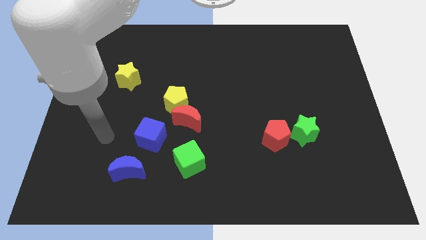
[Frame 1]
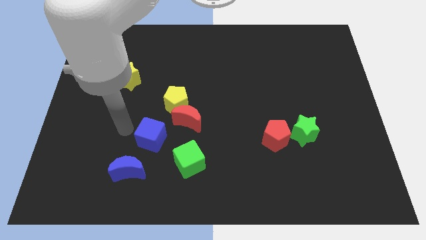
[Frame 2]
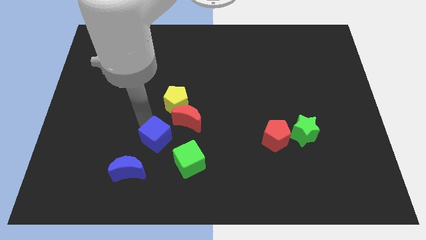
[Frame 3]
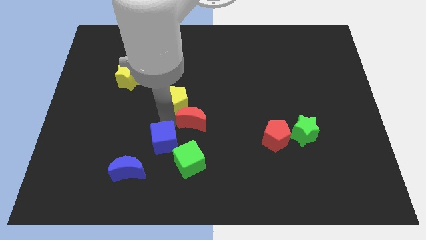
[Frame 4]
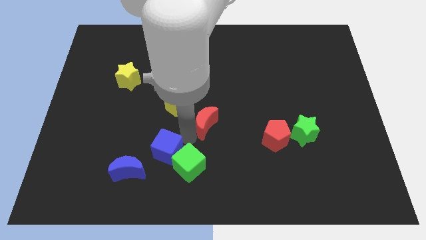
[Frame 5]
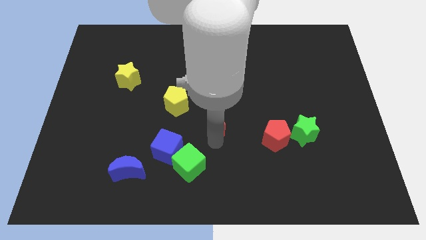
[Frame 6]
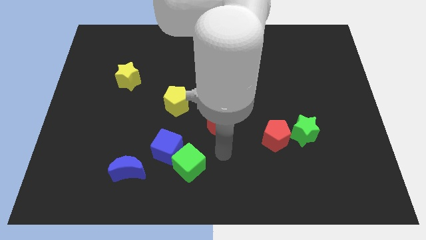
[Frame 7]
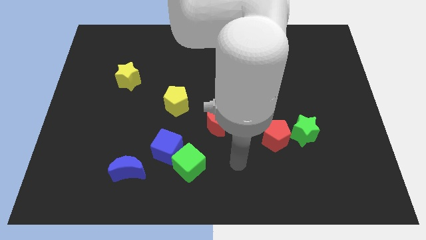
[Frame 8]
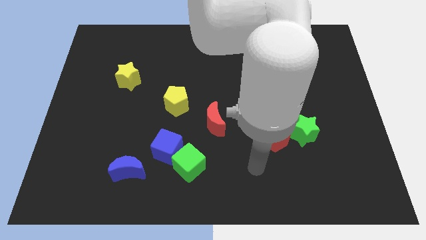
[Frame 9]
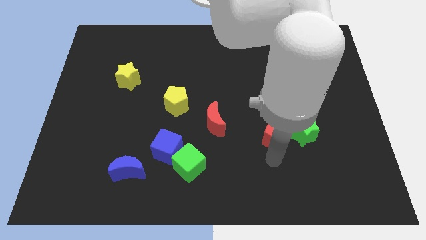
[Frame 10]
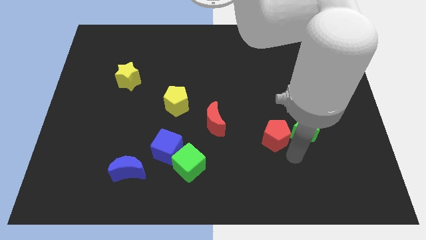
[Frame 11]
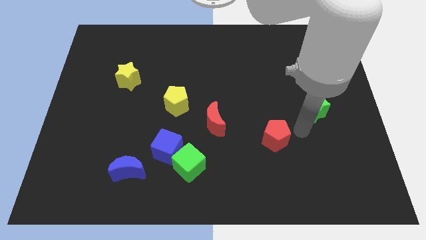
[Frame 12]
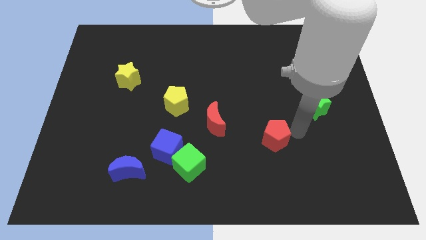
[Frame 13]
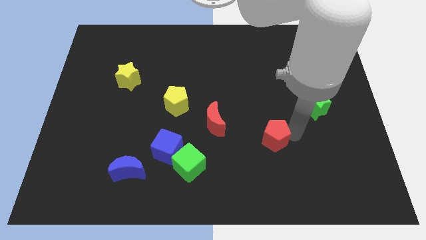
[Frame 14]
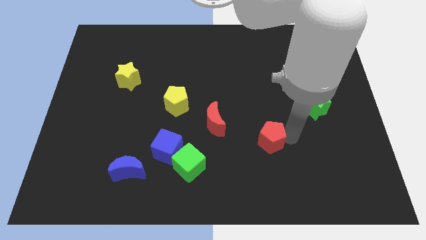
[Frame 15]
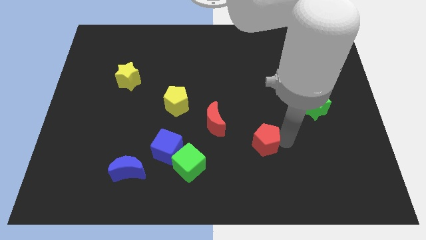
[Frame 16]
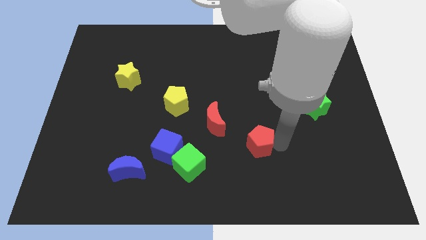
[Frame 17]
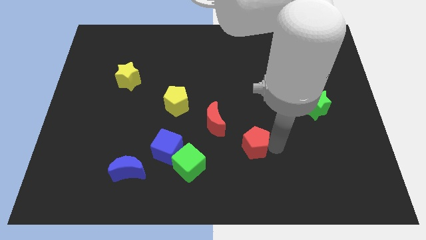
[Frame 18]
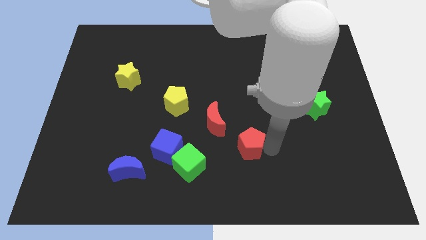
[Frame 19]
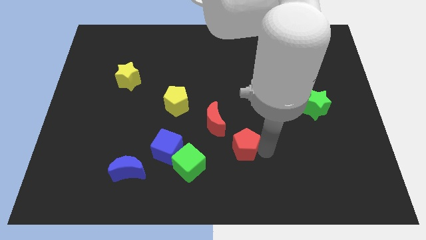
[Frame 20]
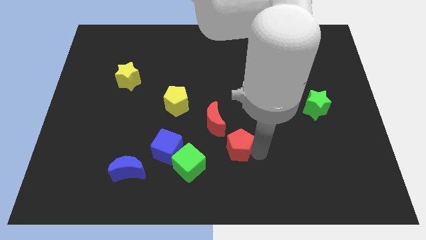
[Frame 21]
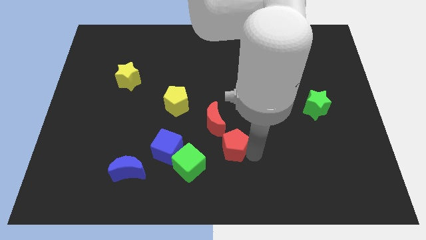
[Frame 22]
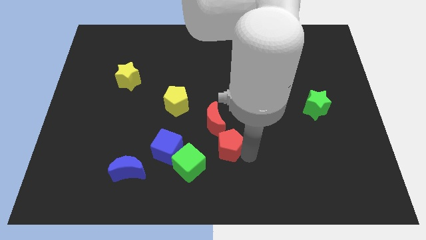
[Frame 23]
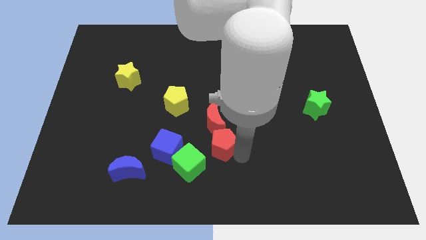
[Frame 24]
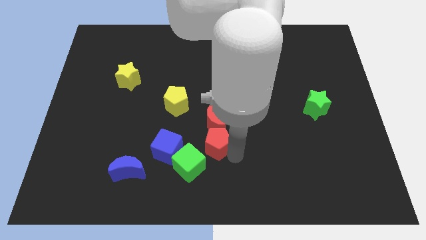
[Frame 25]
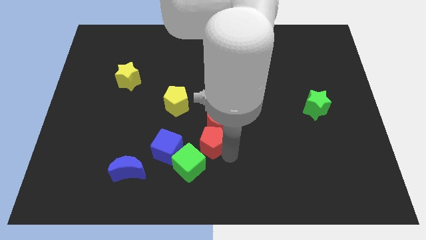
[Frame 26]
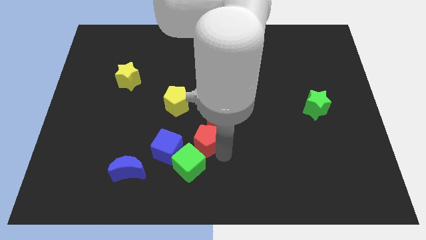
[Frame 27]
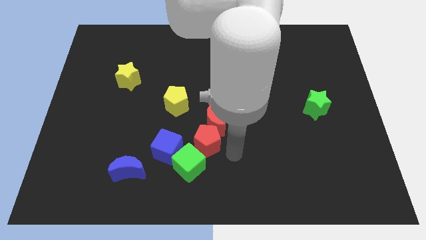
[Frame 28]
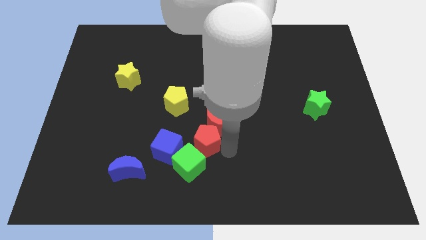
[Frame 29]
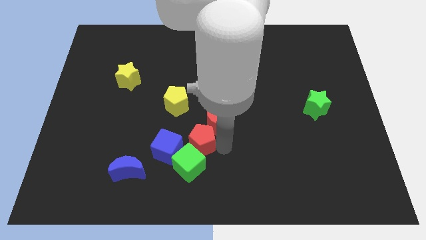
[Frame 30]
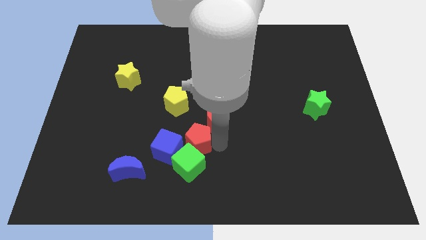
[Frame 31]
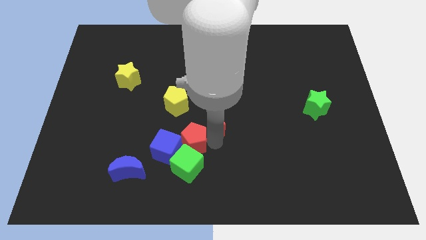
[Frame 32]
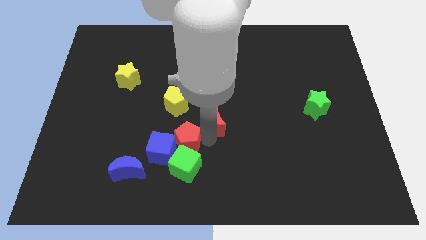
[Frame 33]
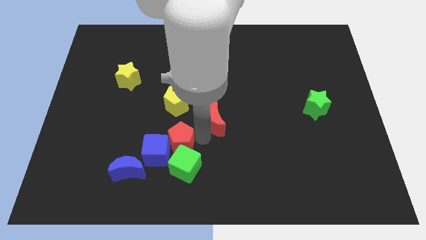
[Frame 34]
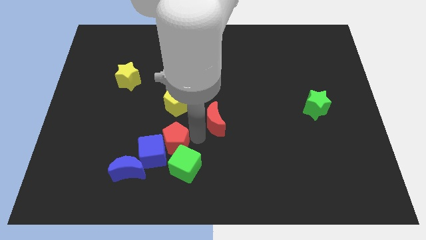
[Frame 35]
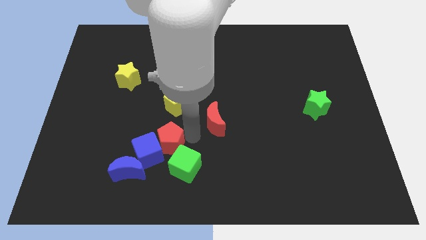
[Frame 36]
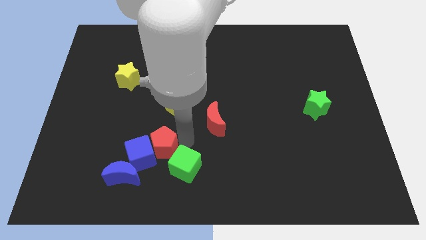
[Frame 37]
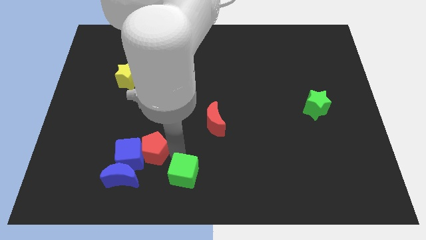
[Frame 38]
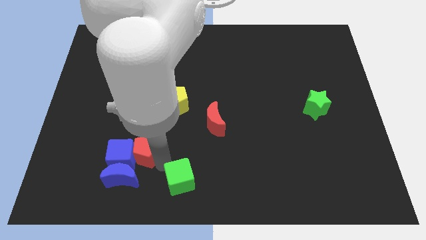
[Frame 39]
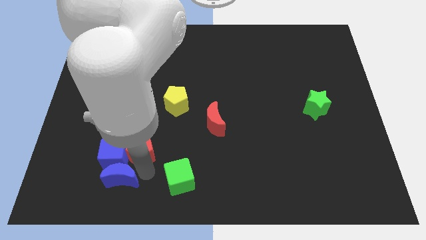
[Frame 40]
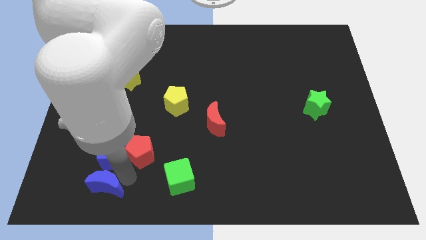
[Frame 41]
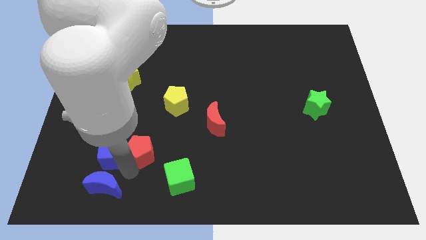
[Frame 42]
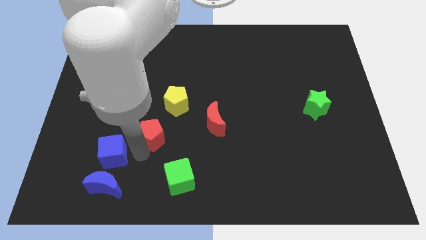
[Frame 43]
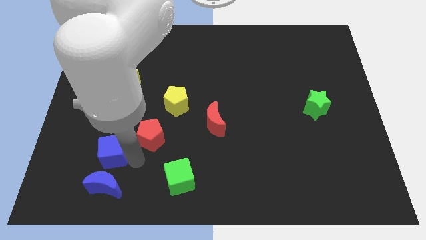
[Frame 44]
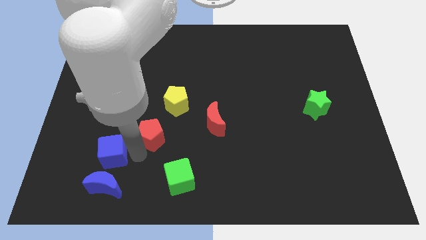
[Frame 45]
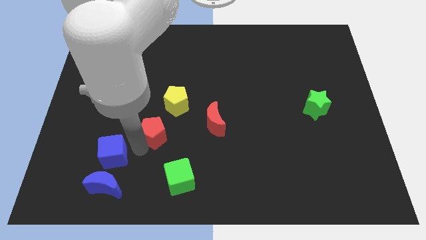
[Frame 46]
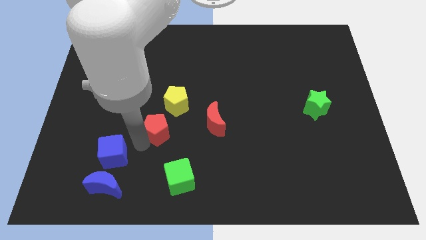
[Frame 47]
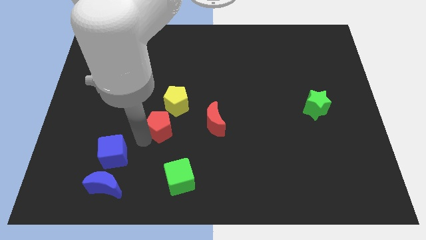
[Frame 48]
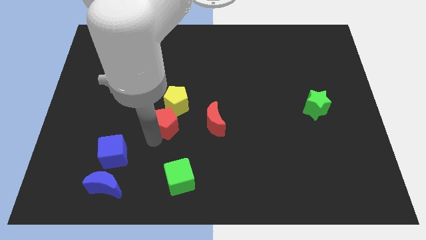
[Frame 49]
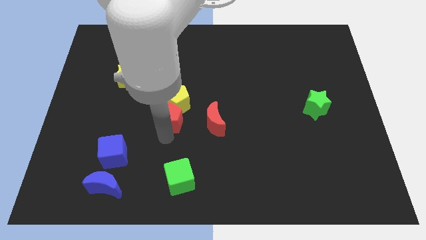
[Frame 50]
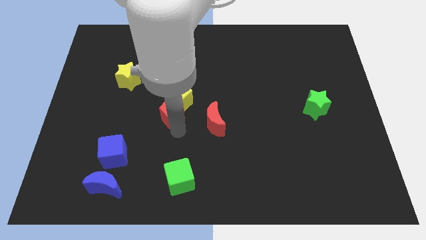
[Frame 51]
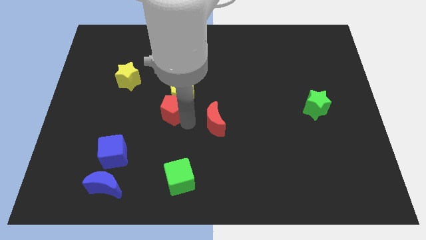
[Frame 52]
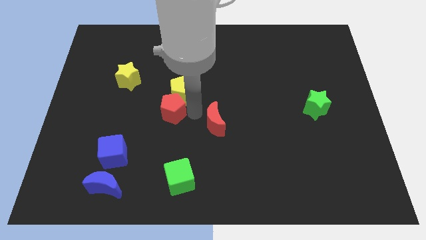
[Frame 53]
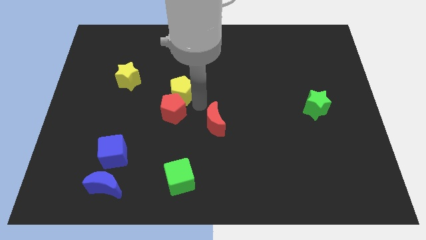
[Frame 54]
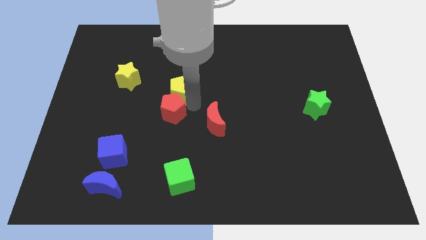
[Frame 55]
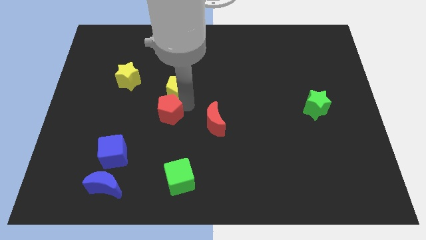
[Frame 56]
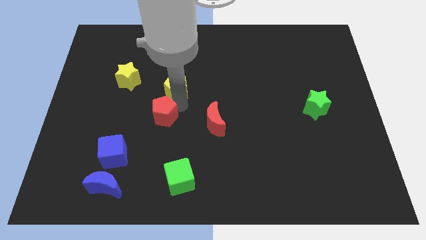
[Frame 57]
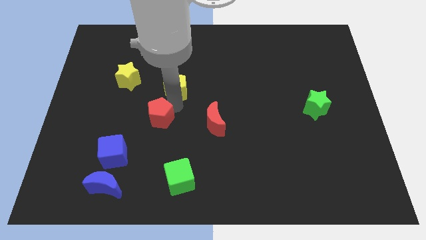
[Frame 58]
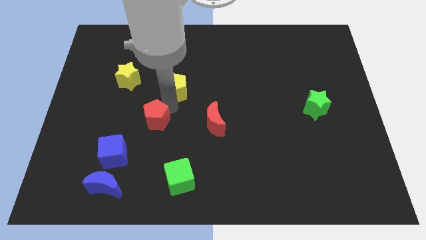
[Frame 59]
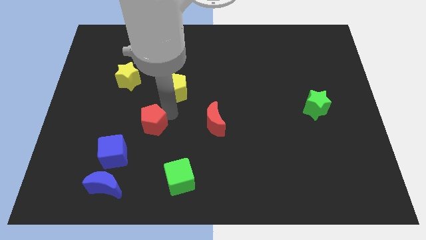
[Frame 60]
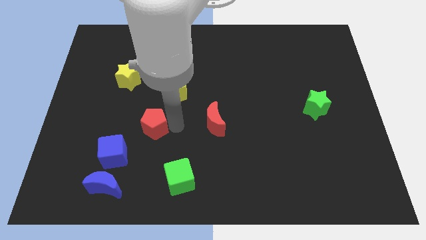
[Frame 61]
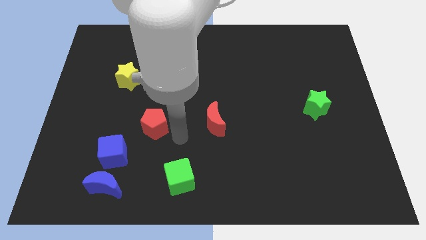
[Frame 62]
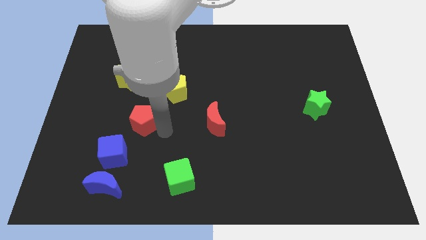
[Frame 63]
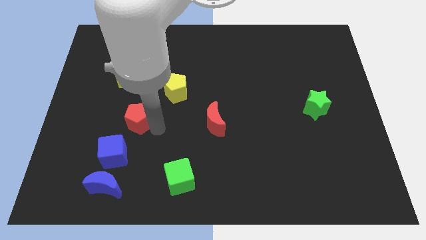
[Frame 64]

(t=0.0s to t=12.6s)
put the red pentagon to the bottom side of the yellow star

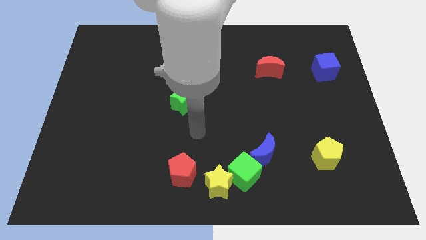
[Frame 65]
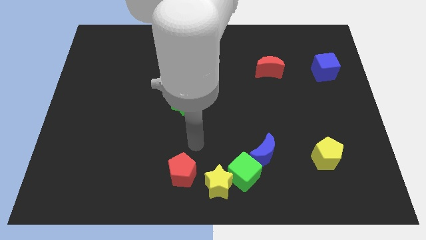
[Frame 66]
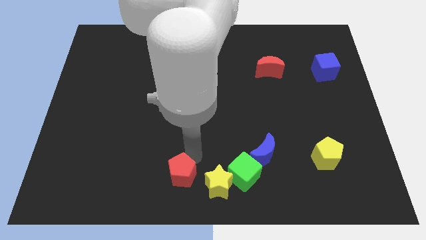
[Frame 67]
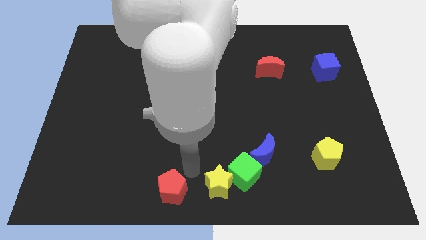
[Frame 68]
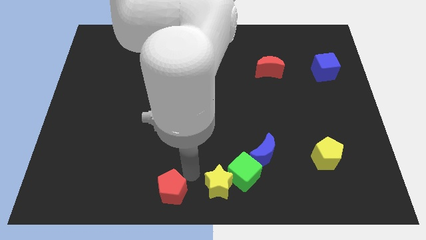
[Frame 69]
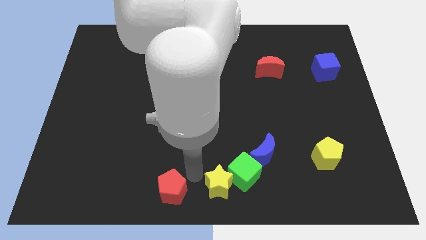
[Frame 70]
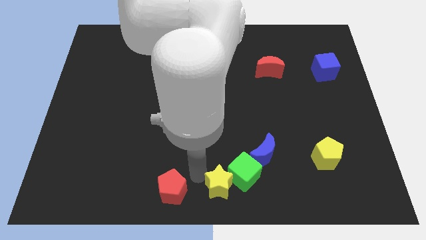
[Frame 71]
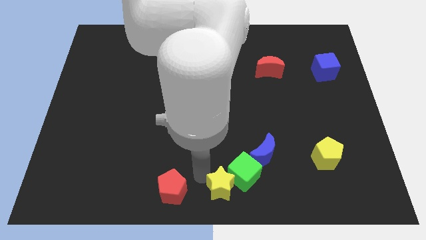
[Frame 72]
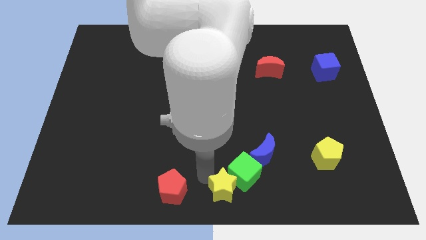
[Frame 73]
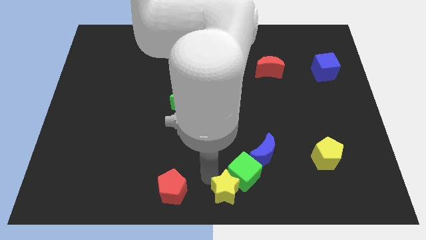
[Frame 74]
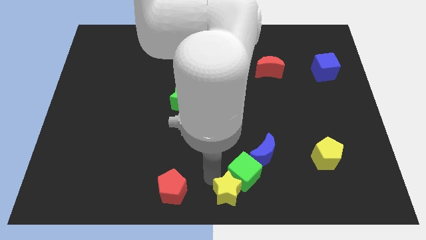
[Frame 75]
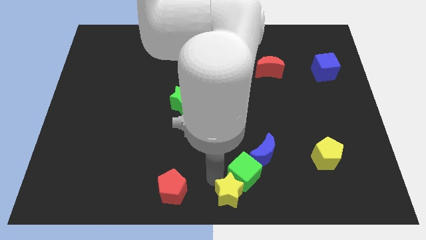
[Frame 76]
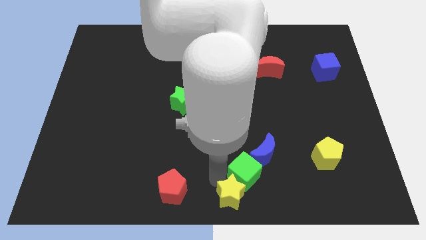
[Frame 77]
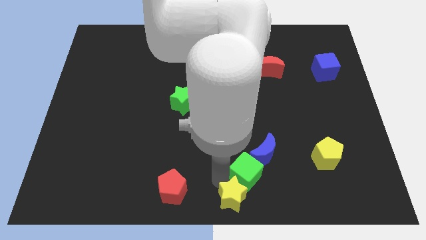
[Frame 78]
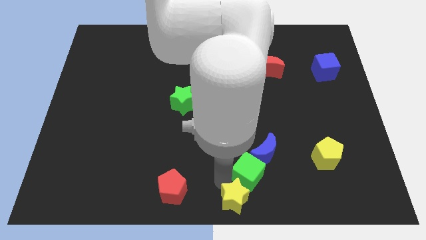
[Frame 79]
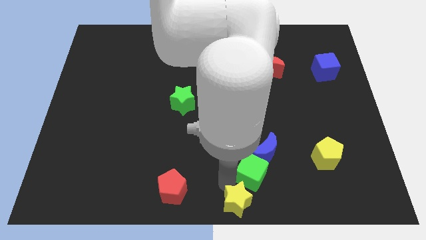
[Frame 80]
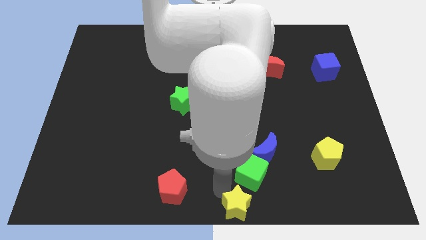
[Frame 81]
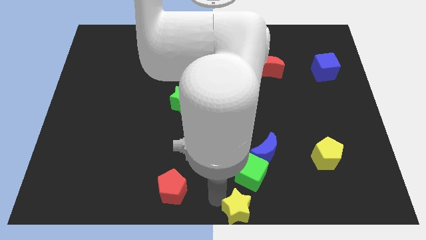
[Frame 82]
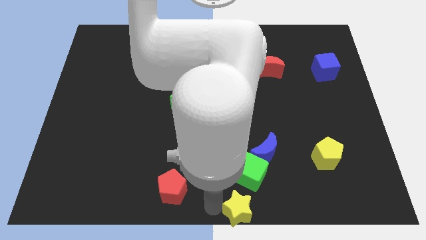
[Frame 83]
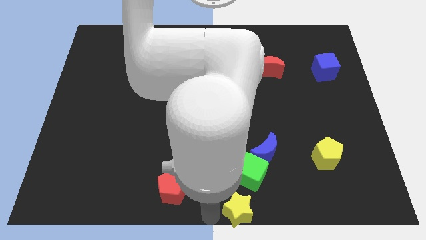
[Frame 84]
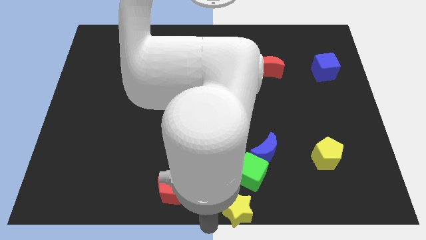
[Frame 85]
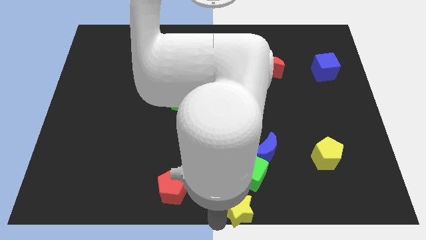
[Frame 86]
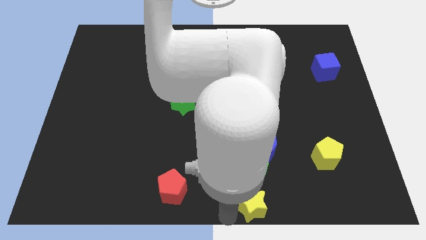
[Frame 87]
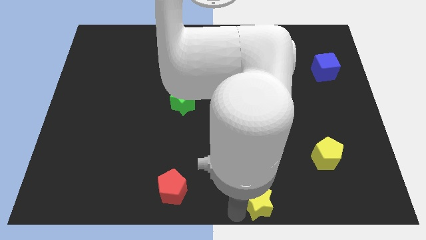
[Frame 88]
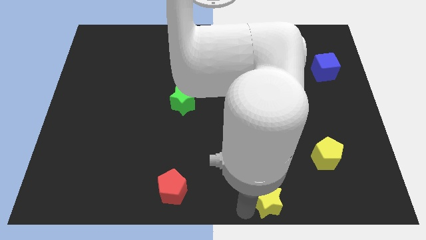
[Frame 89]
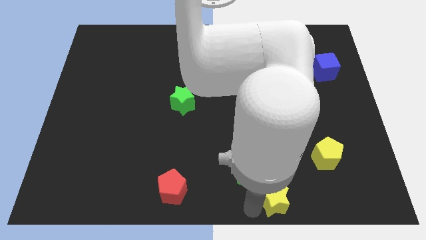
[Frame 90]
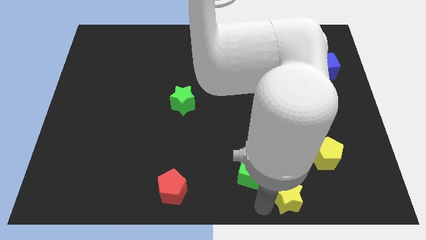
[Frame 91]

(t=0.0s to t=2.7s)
push the yellow star to the bottom left side of the yellow pentagon
